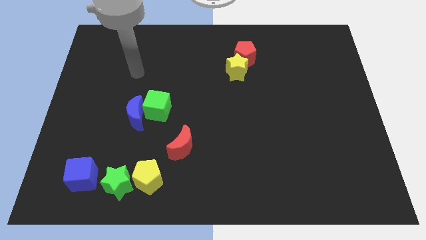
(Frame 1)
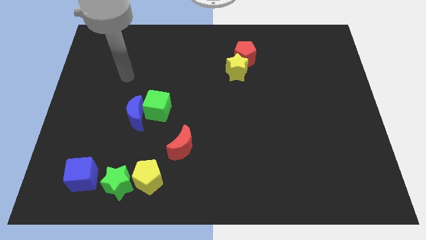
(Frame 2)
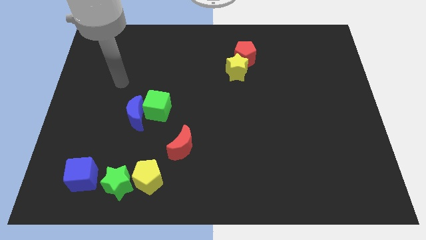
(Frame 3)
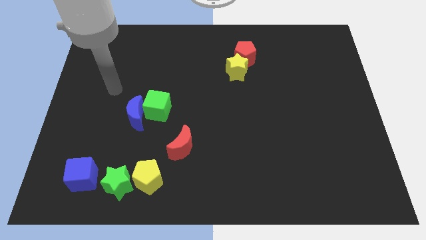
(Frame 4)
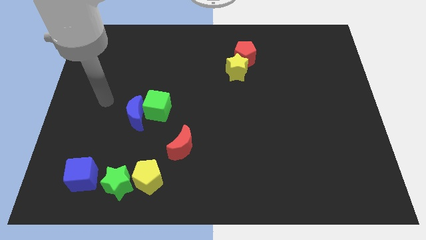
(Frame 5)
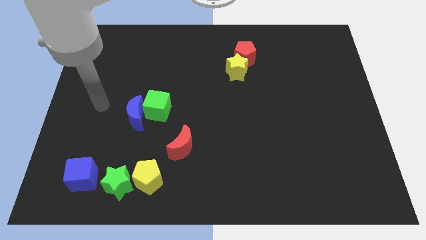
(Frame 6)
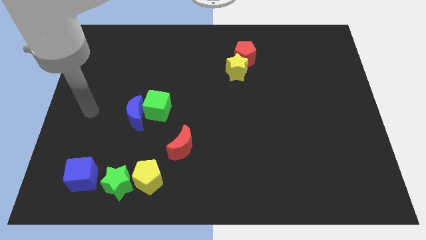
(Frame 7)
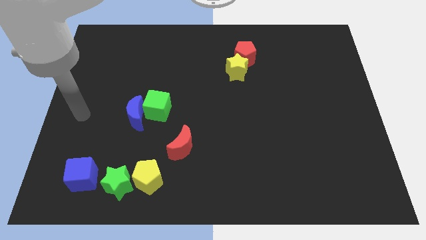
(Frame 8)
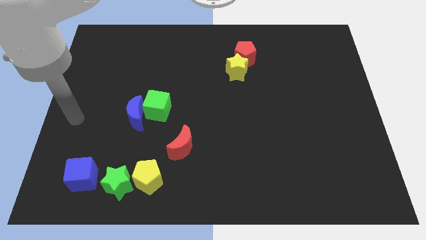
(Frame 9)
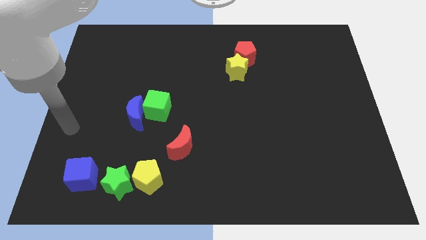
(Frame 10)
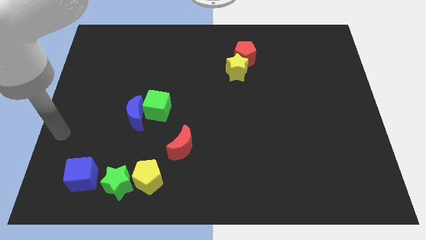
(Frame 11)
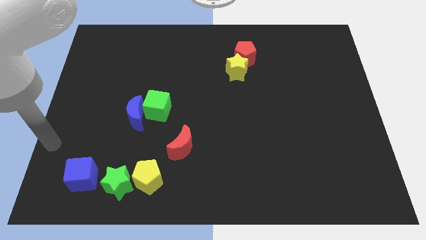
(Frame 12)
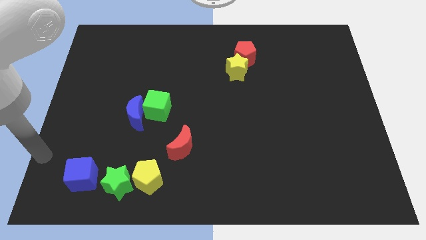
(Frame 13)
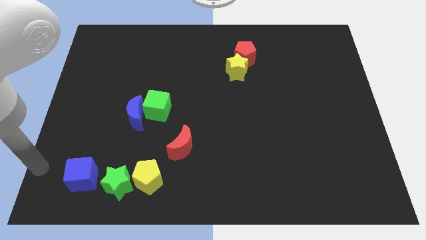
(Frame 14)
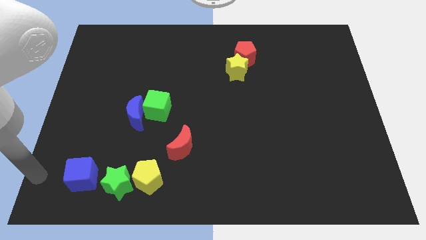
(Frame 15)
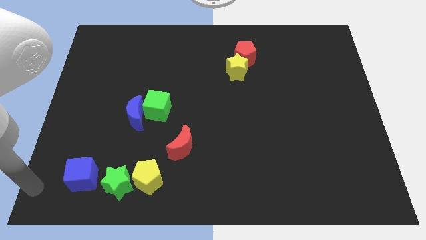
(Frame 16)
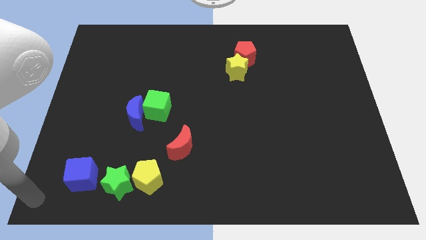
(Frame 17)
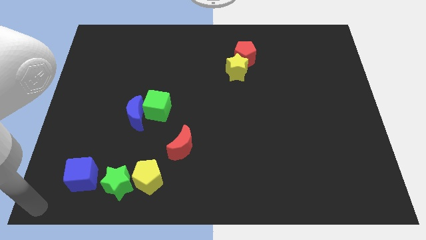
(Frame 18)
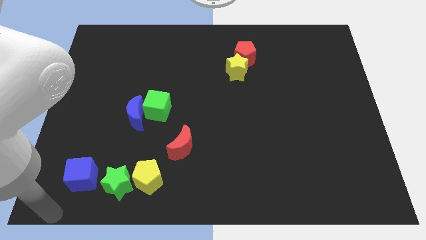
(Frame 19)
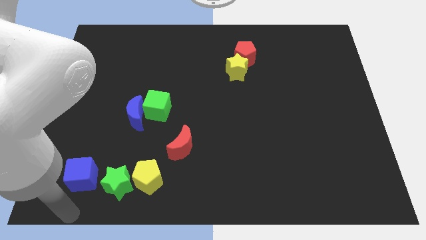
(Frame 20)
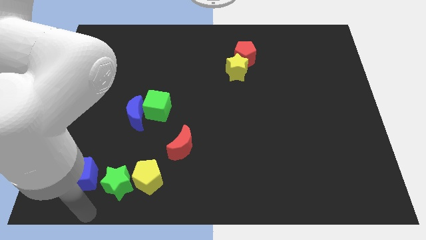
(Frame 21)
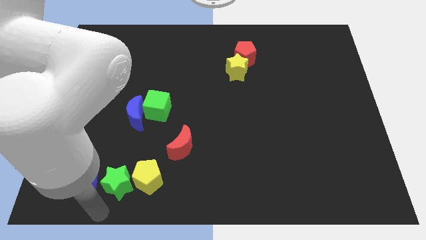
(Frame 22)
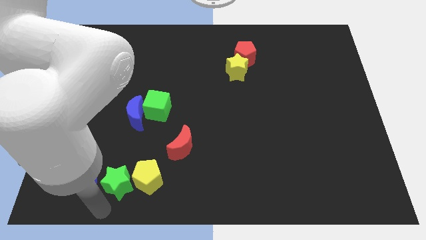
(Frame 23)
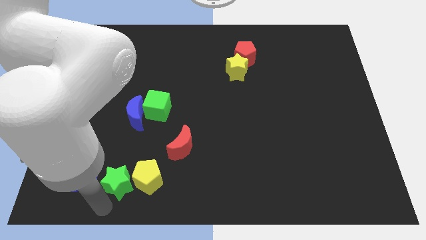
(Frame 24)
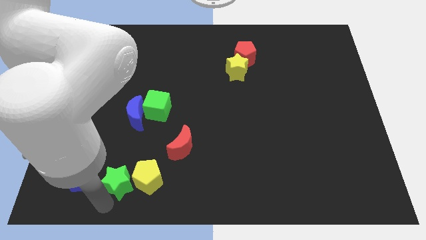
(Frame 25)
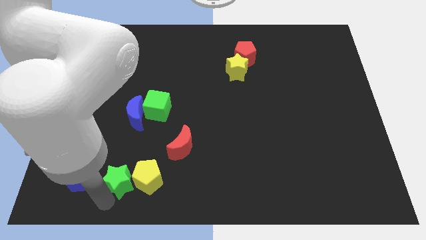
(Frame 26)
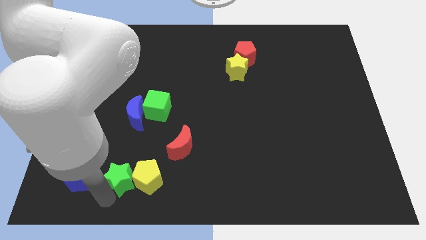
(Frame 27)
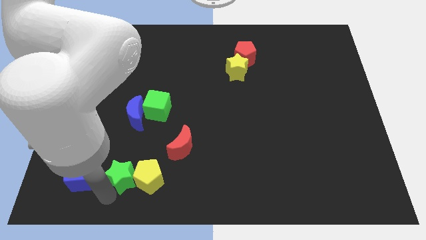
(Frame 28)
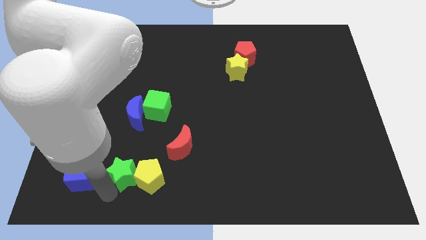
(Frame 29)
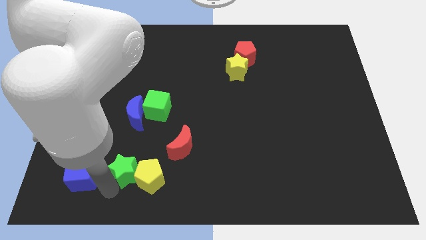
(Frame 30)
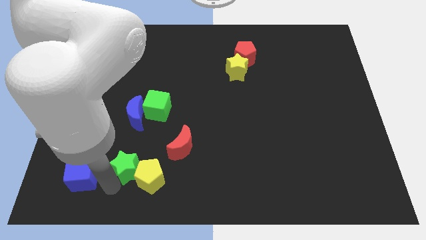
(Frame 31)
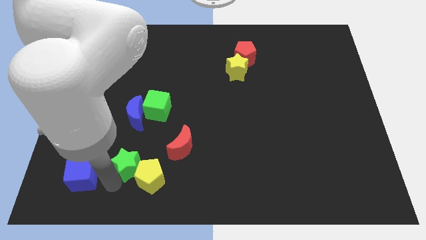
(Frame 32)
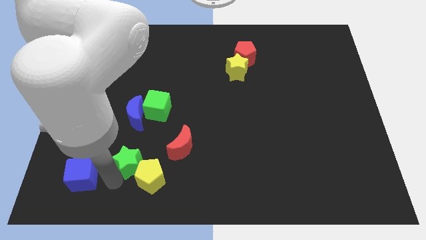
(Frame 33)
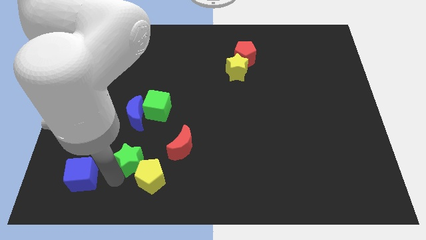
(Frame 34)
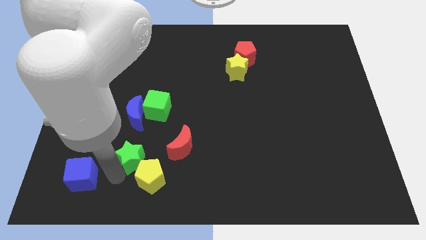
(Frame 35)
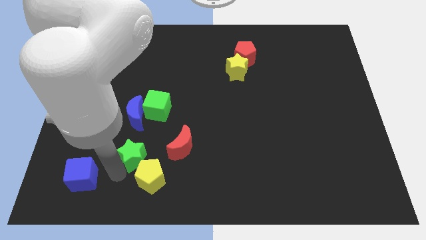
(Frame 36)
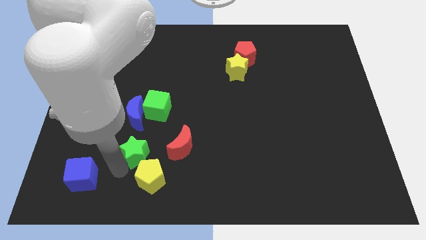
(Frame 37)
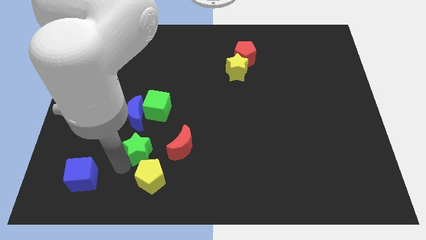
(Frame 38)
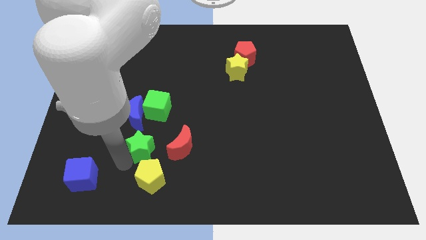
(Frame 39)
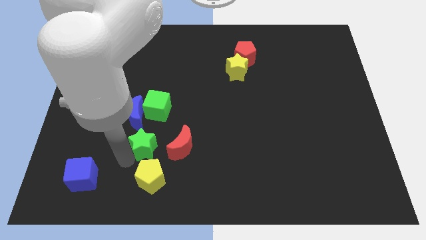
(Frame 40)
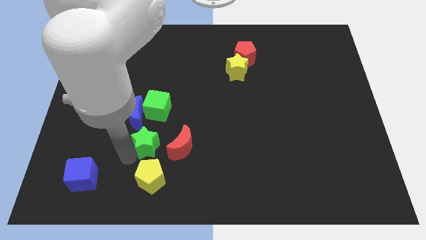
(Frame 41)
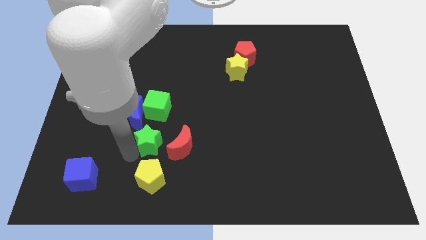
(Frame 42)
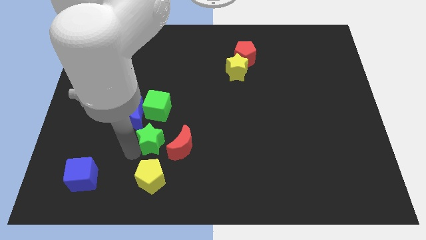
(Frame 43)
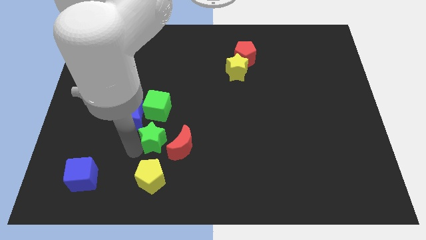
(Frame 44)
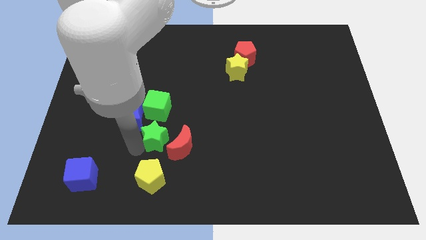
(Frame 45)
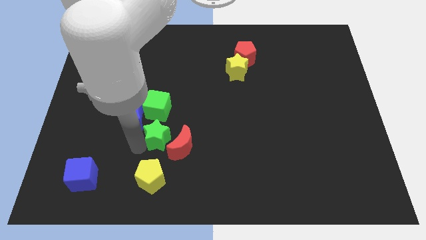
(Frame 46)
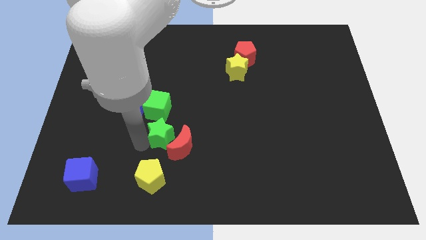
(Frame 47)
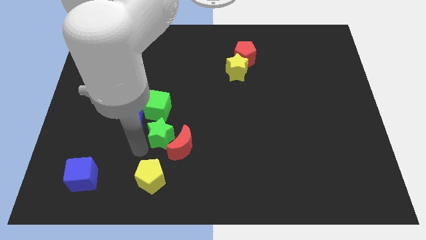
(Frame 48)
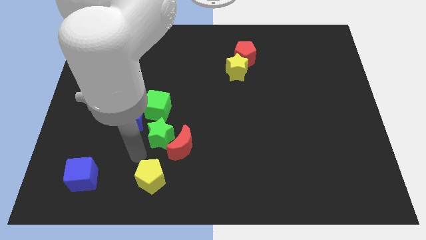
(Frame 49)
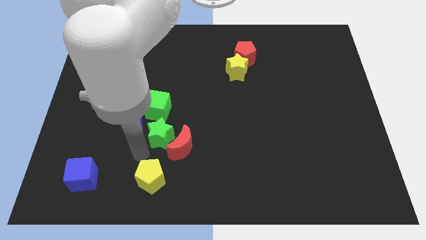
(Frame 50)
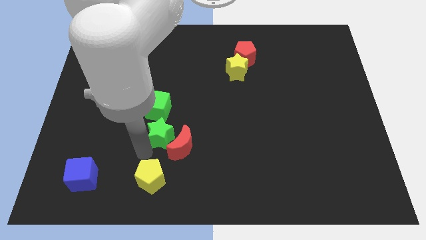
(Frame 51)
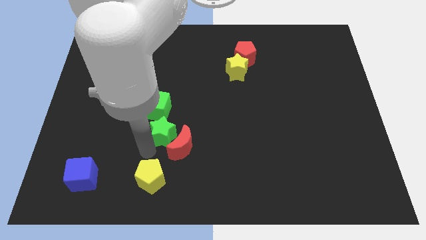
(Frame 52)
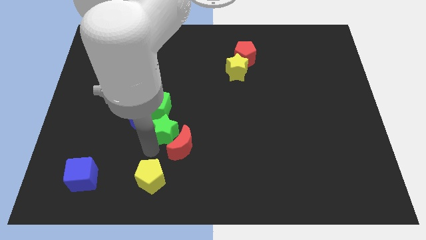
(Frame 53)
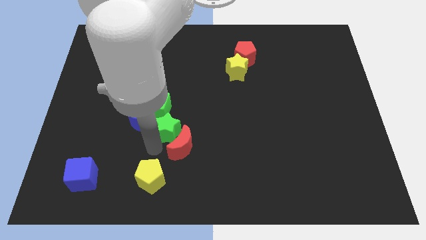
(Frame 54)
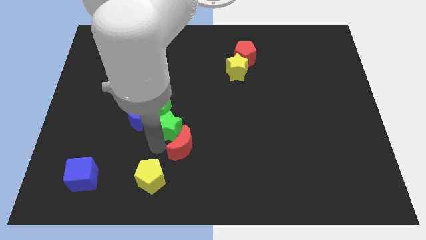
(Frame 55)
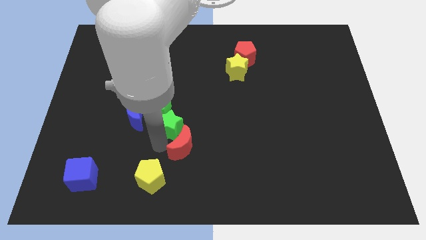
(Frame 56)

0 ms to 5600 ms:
put the green star to the center of the board

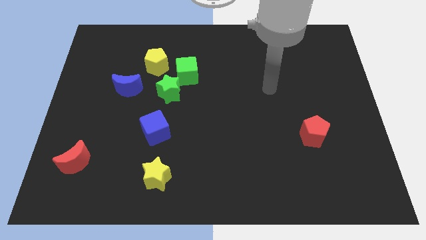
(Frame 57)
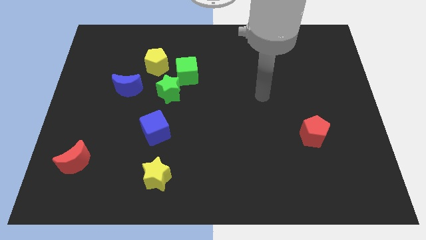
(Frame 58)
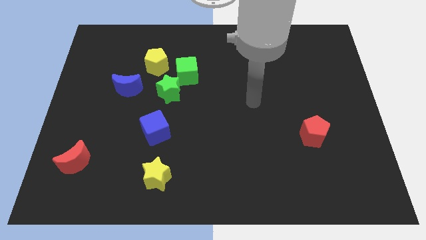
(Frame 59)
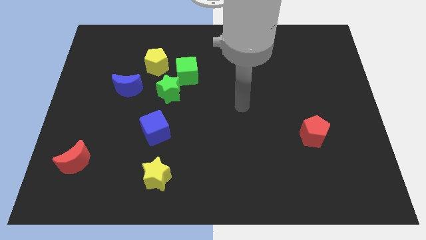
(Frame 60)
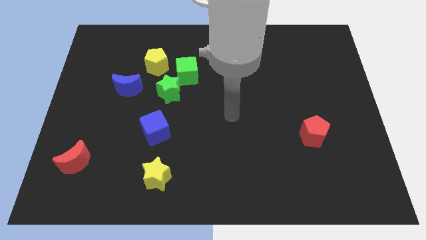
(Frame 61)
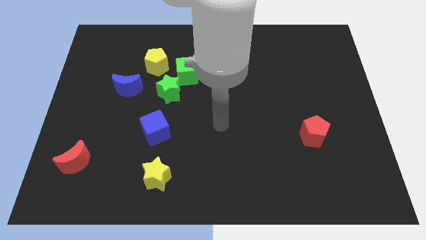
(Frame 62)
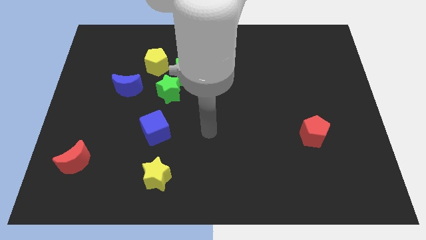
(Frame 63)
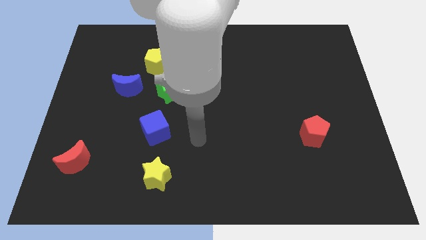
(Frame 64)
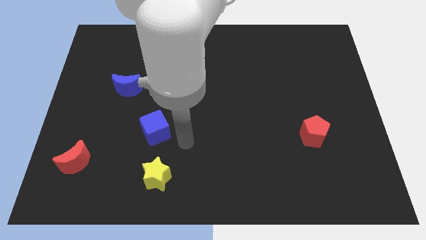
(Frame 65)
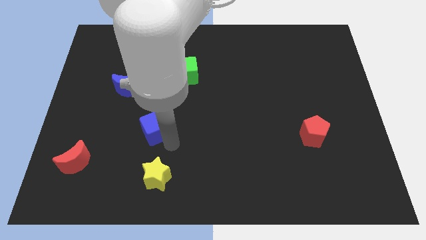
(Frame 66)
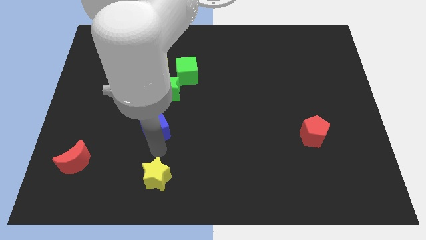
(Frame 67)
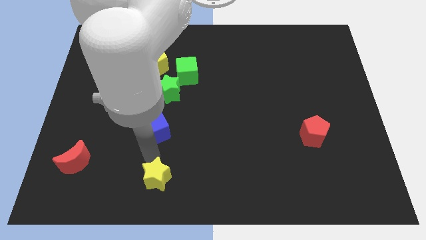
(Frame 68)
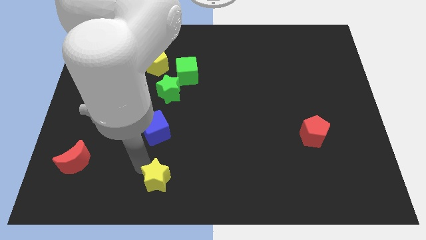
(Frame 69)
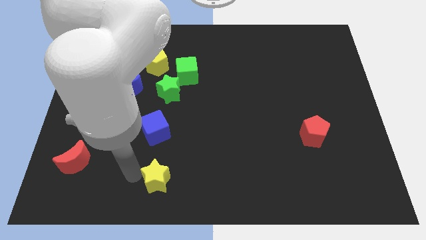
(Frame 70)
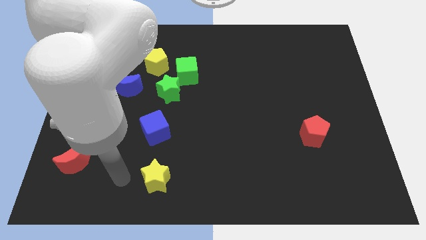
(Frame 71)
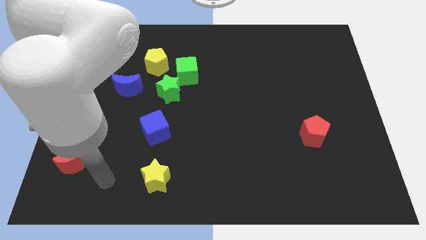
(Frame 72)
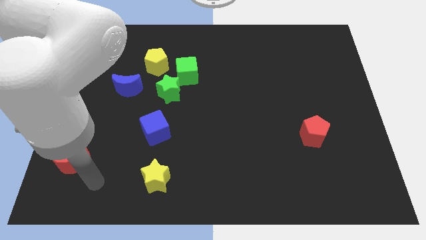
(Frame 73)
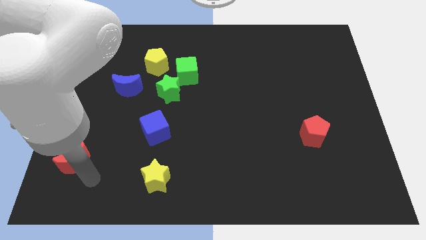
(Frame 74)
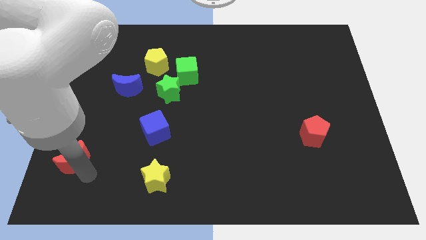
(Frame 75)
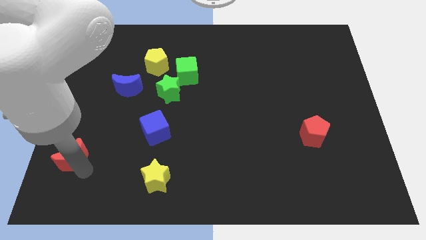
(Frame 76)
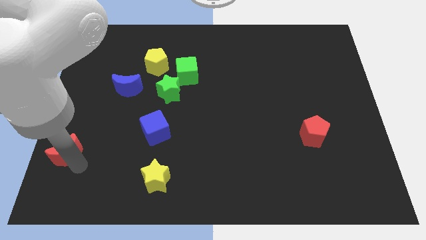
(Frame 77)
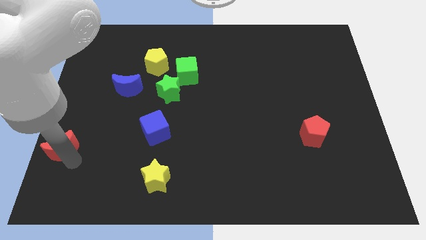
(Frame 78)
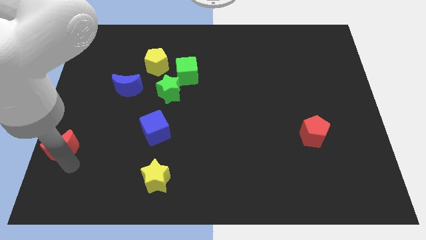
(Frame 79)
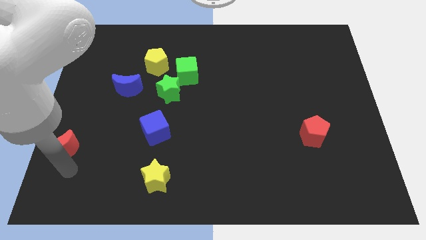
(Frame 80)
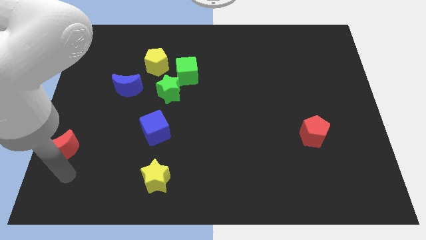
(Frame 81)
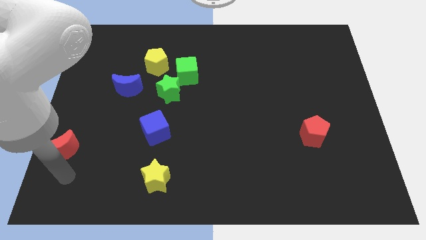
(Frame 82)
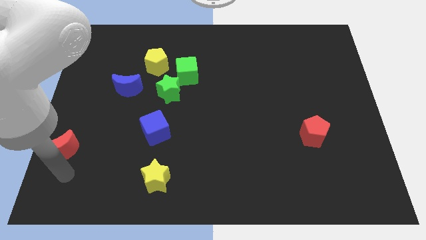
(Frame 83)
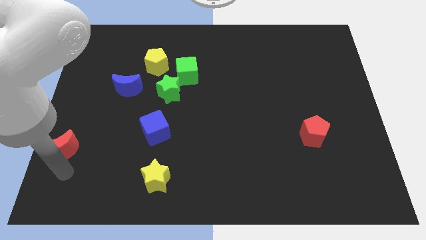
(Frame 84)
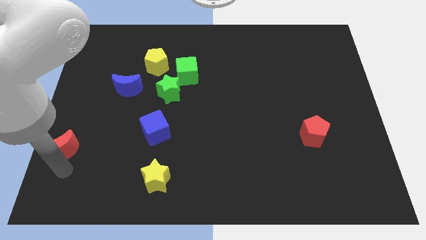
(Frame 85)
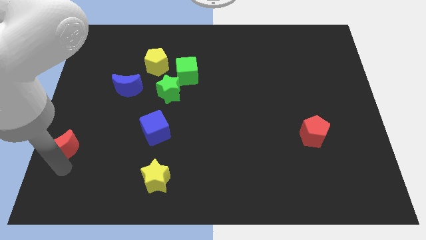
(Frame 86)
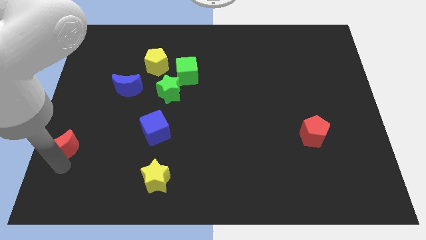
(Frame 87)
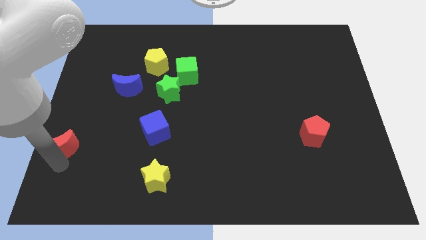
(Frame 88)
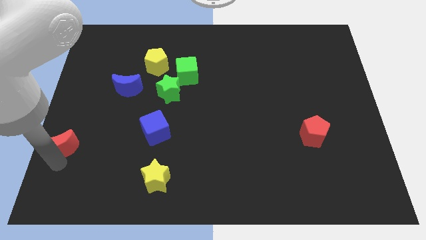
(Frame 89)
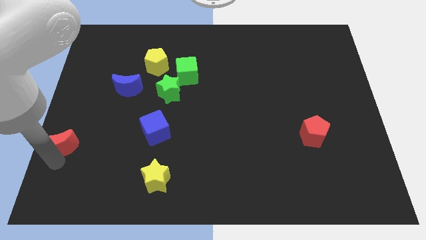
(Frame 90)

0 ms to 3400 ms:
move the red moon to the left side
